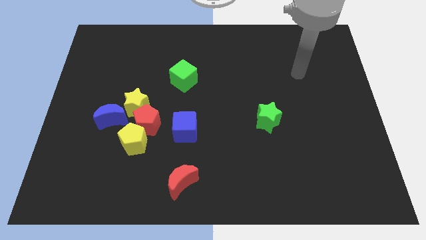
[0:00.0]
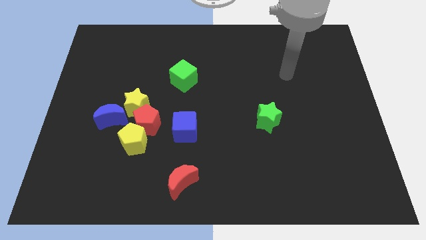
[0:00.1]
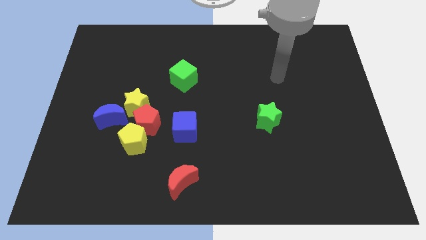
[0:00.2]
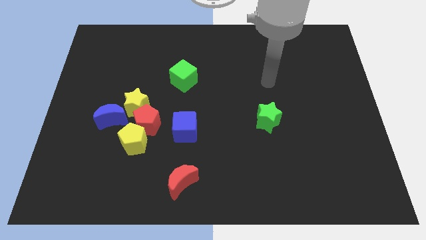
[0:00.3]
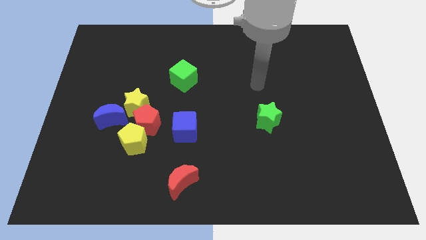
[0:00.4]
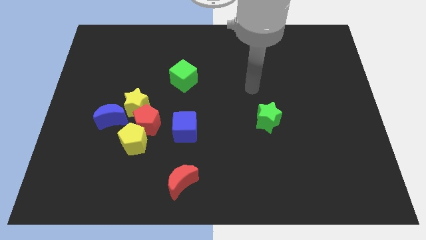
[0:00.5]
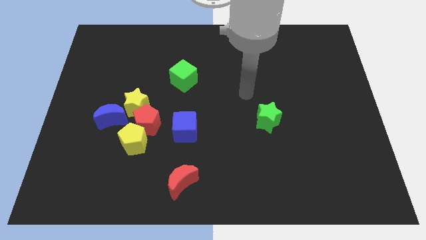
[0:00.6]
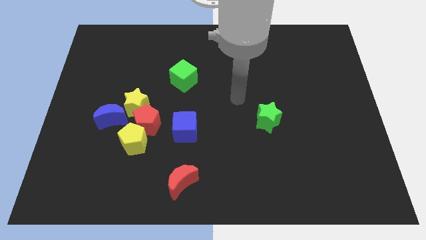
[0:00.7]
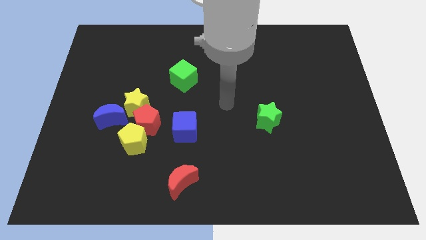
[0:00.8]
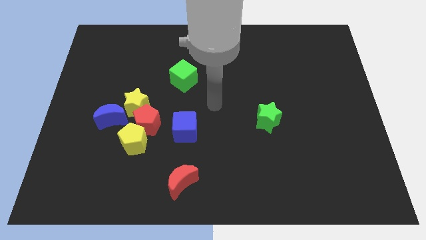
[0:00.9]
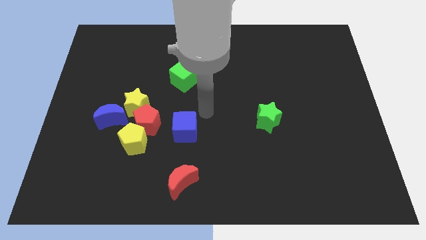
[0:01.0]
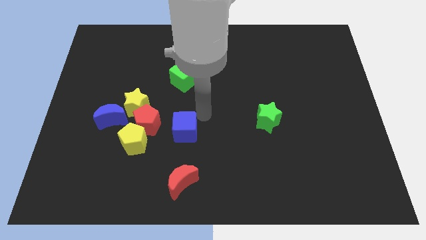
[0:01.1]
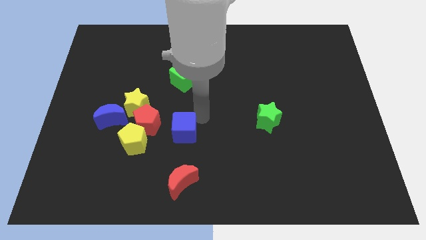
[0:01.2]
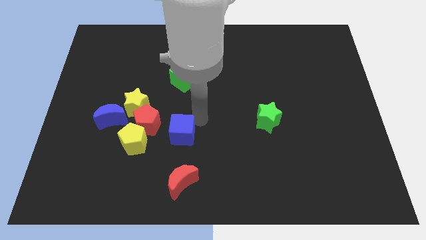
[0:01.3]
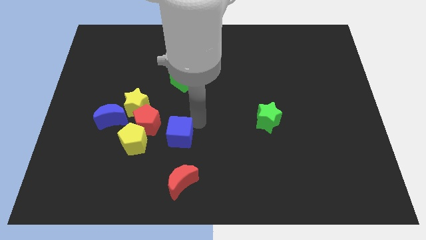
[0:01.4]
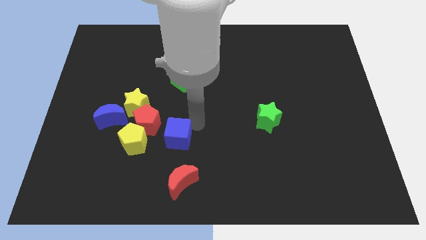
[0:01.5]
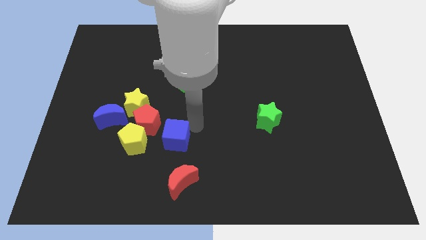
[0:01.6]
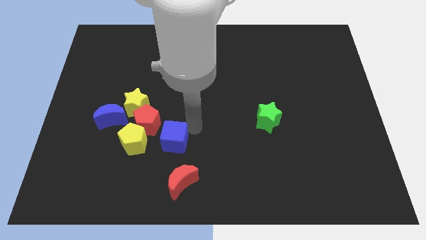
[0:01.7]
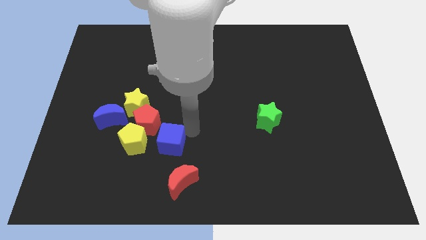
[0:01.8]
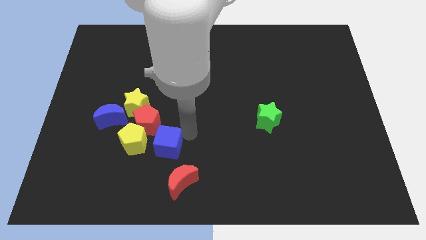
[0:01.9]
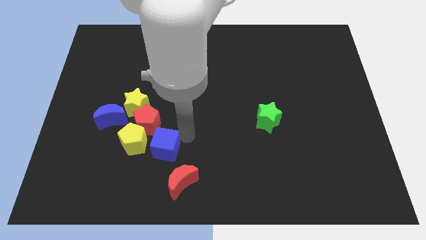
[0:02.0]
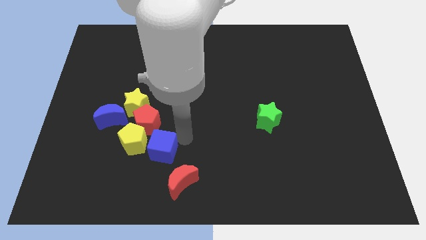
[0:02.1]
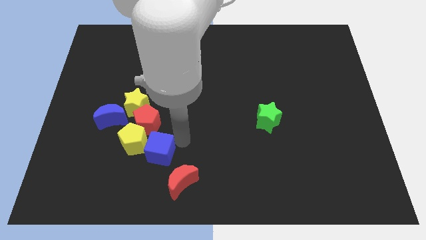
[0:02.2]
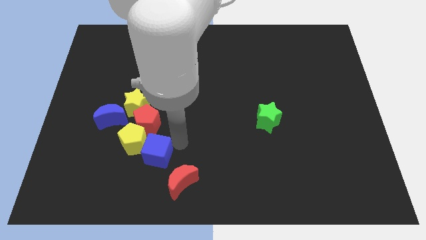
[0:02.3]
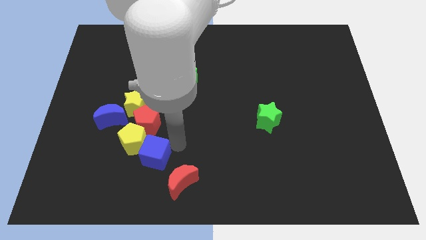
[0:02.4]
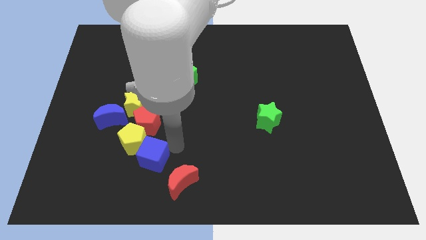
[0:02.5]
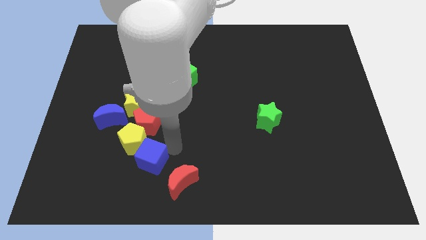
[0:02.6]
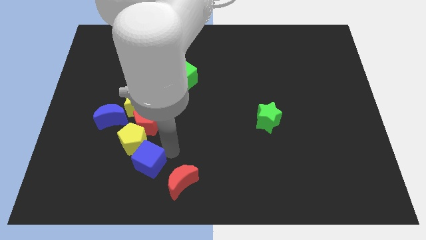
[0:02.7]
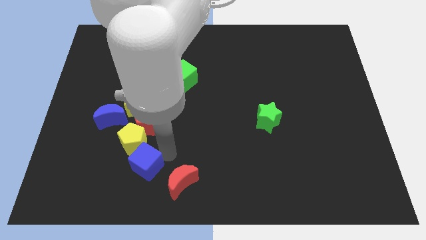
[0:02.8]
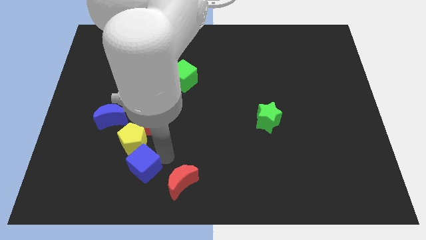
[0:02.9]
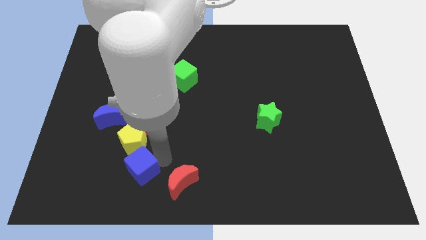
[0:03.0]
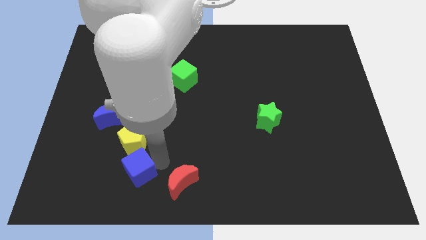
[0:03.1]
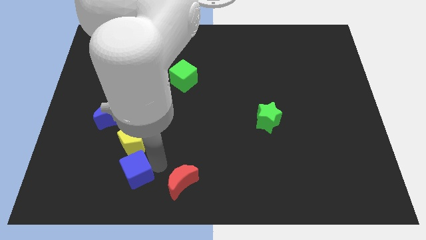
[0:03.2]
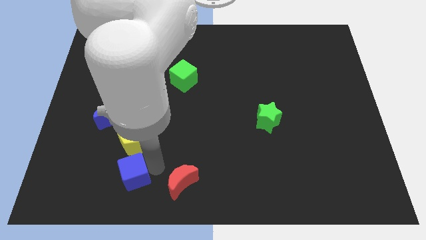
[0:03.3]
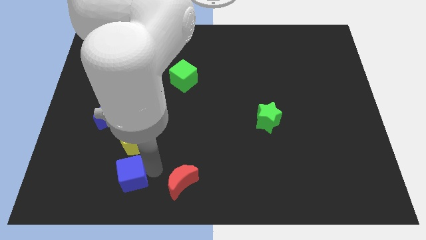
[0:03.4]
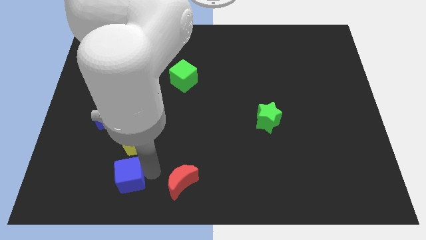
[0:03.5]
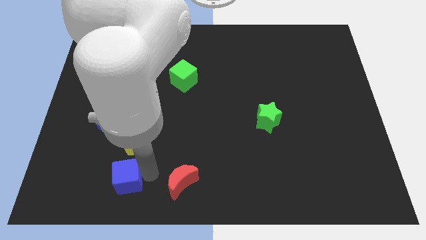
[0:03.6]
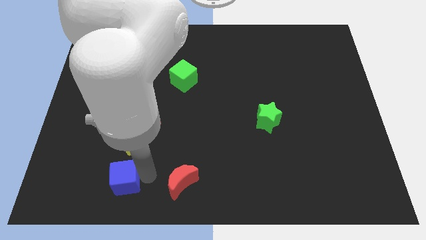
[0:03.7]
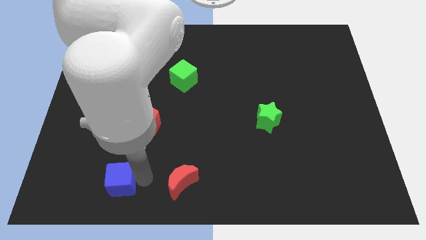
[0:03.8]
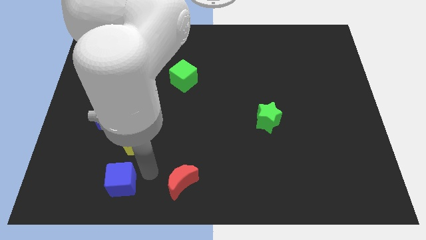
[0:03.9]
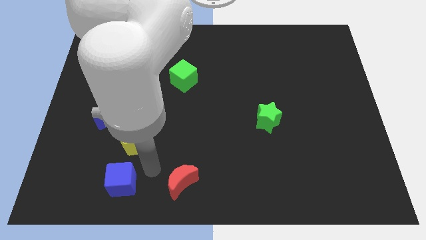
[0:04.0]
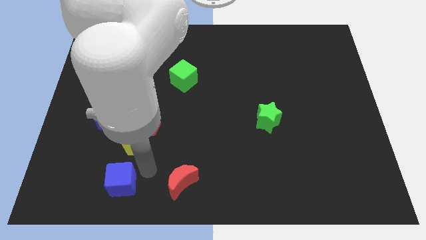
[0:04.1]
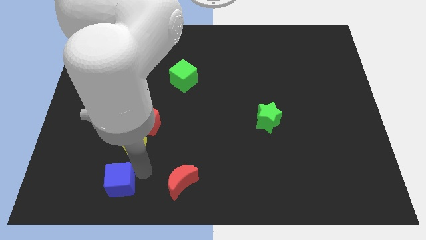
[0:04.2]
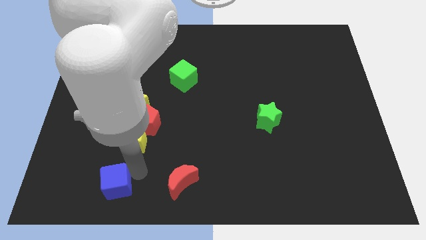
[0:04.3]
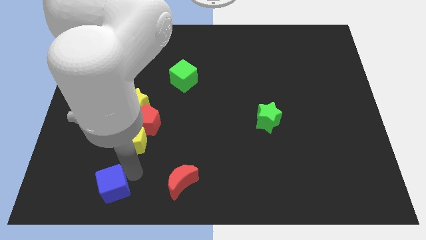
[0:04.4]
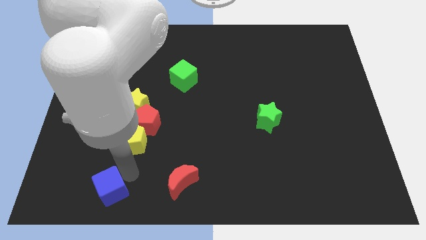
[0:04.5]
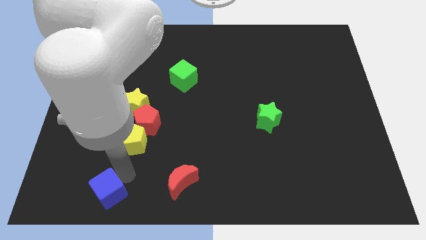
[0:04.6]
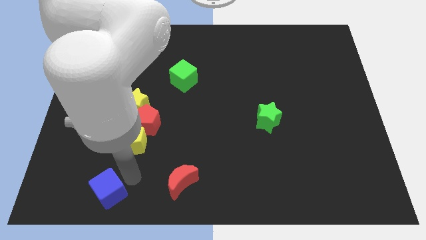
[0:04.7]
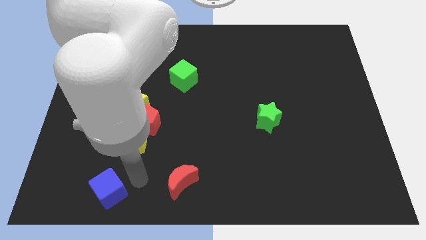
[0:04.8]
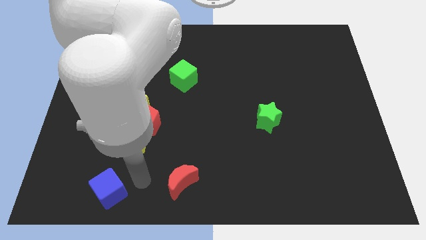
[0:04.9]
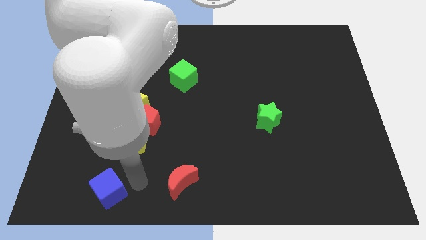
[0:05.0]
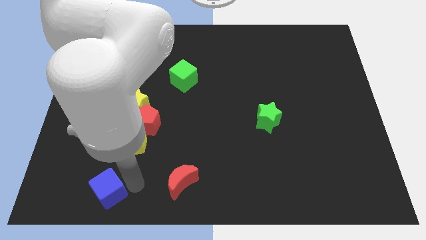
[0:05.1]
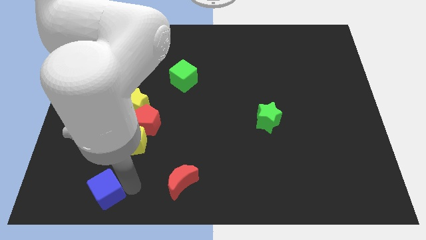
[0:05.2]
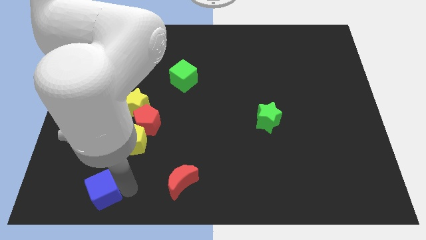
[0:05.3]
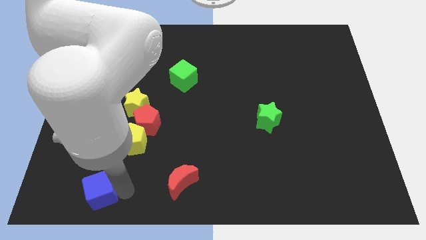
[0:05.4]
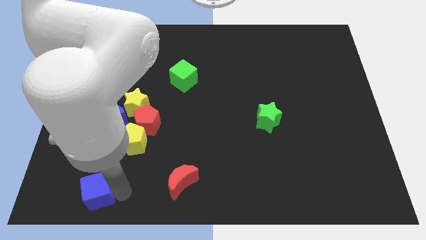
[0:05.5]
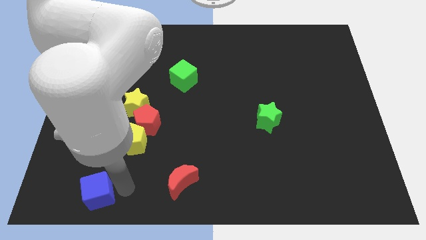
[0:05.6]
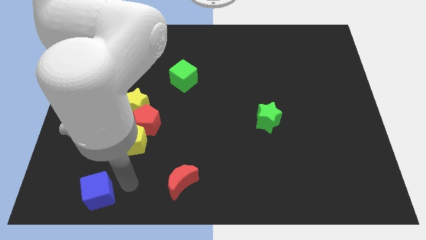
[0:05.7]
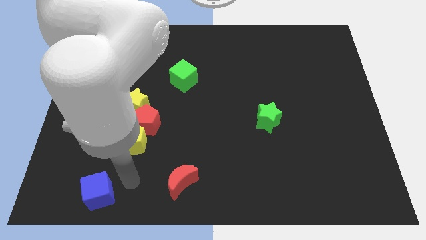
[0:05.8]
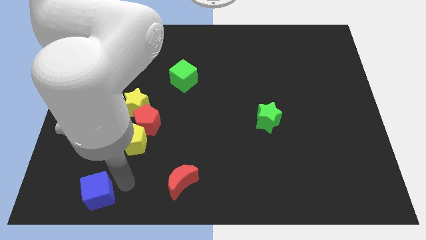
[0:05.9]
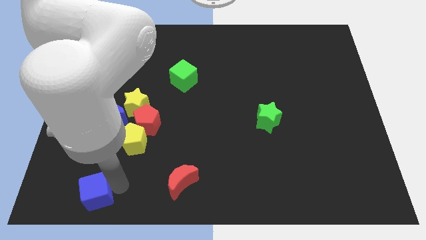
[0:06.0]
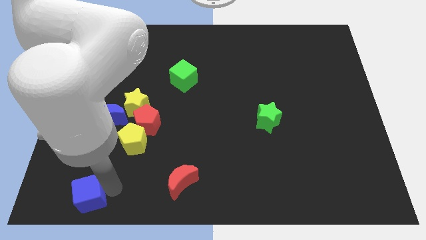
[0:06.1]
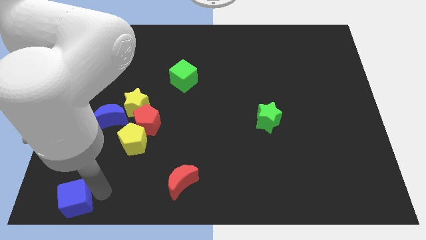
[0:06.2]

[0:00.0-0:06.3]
push the blue cube to the bottom left
